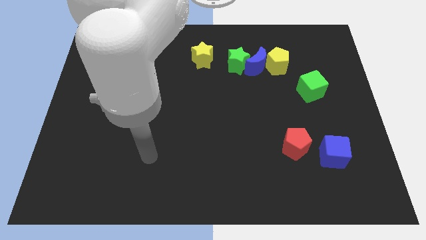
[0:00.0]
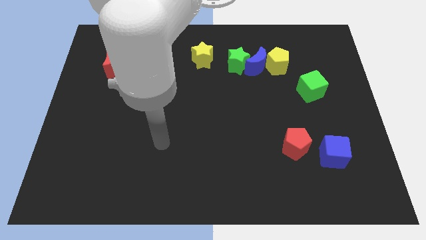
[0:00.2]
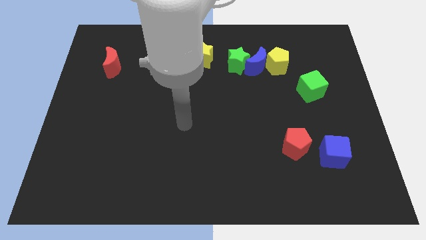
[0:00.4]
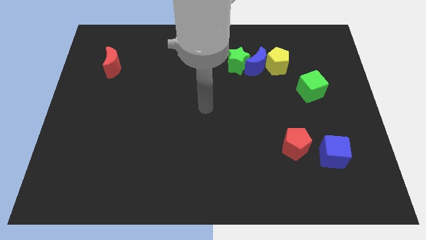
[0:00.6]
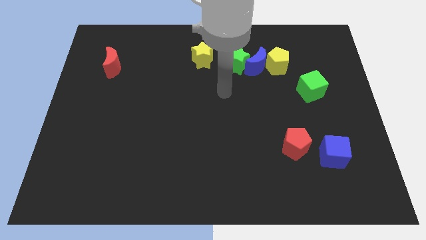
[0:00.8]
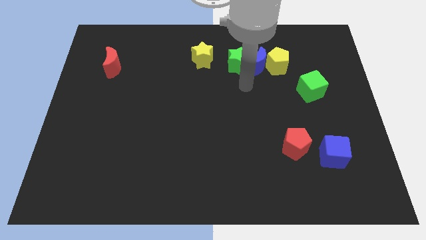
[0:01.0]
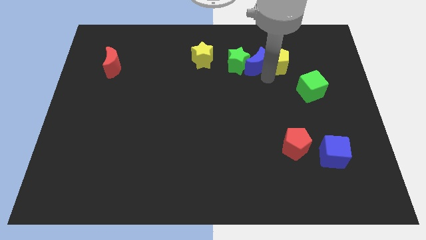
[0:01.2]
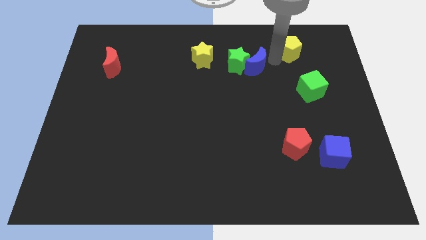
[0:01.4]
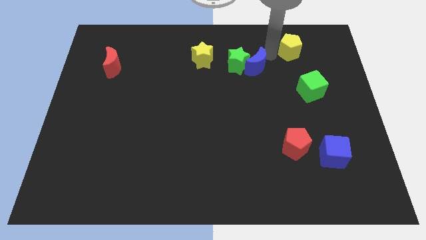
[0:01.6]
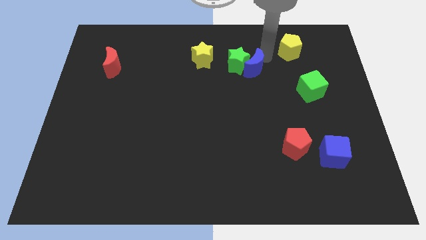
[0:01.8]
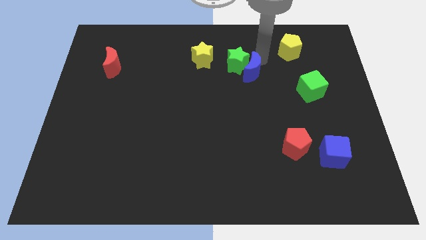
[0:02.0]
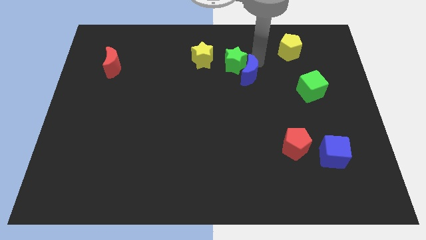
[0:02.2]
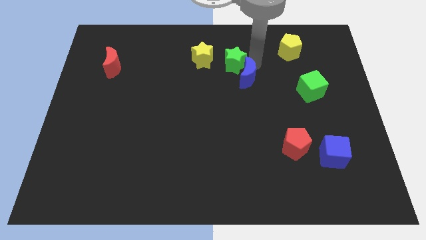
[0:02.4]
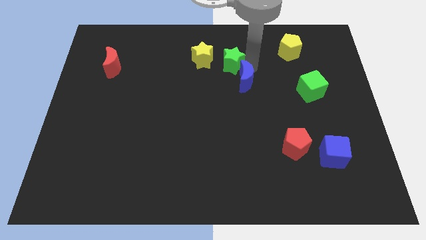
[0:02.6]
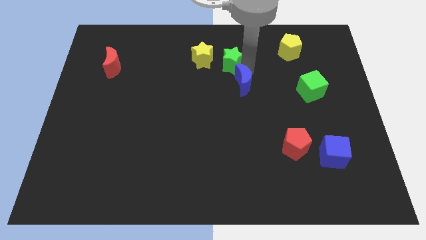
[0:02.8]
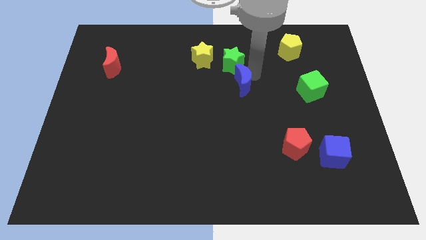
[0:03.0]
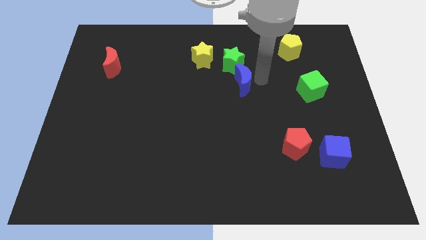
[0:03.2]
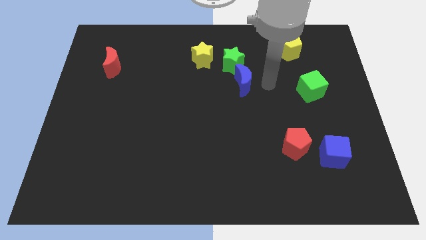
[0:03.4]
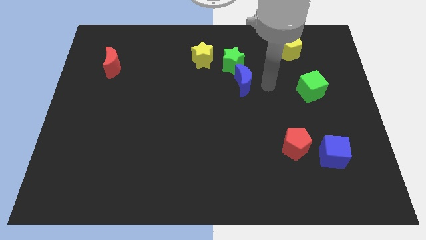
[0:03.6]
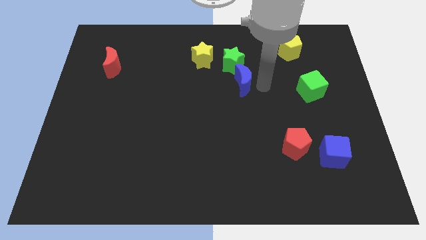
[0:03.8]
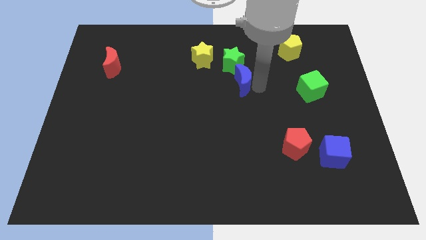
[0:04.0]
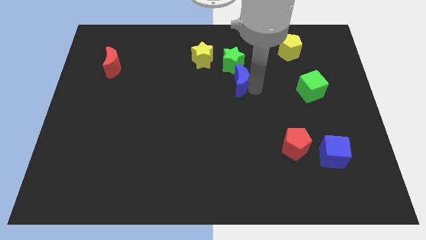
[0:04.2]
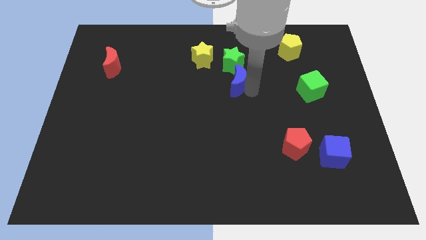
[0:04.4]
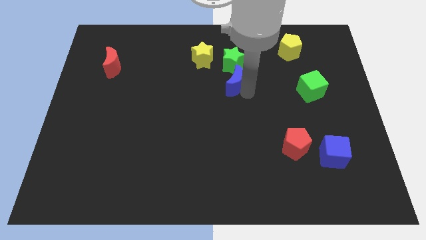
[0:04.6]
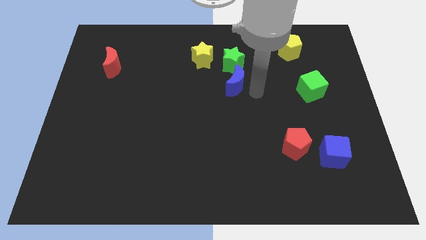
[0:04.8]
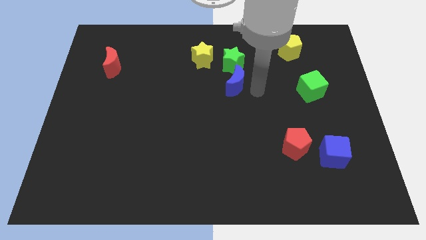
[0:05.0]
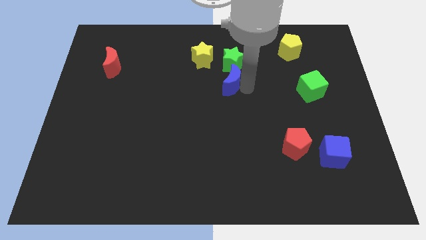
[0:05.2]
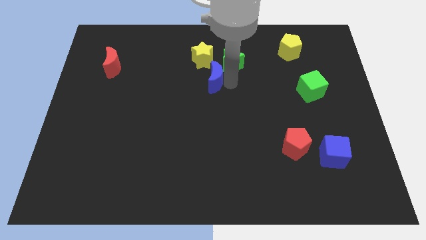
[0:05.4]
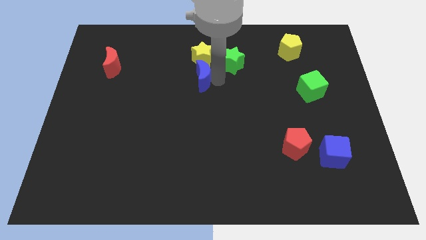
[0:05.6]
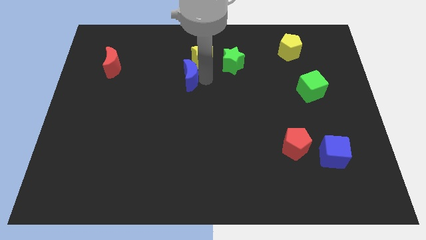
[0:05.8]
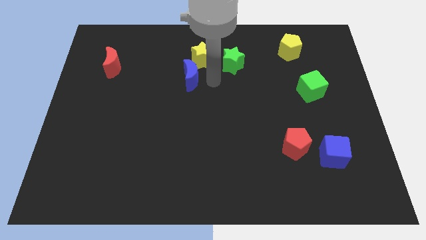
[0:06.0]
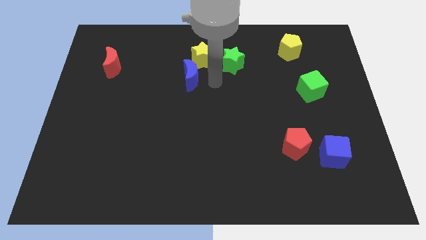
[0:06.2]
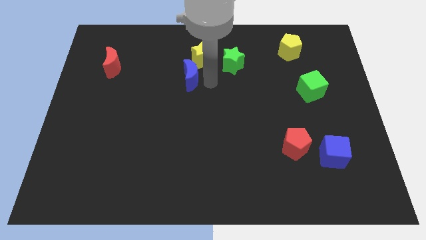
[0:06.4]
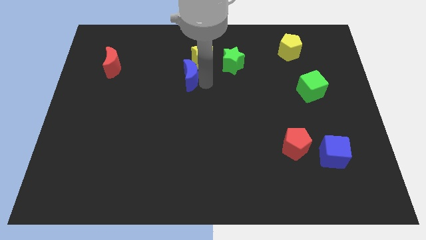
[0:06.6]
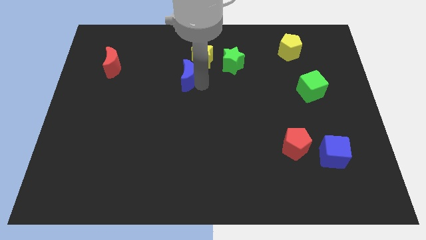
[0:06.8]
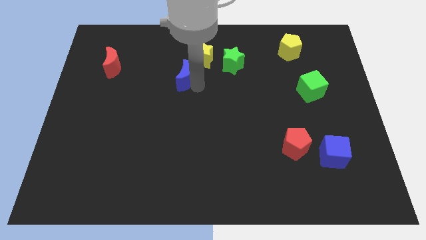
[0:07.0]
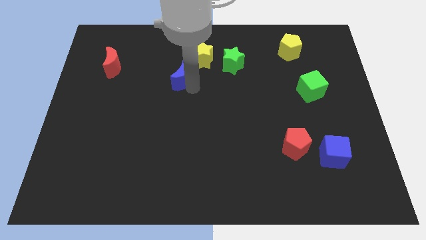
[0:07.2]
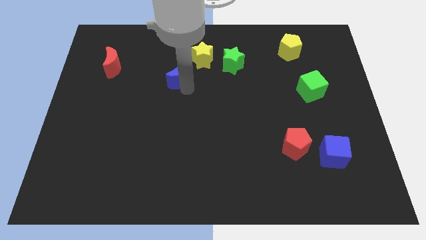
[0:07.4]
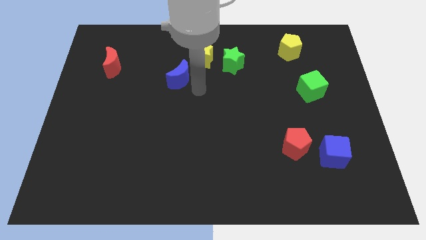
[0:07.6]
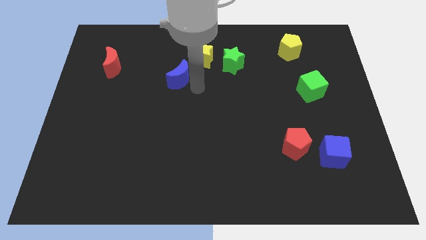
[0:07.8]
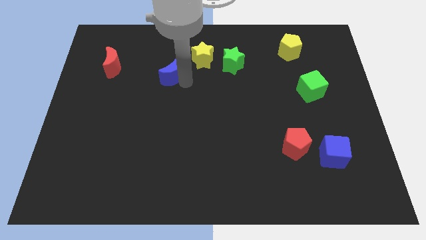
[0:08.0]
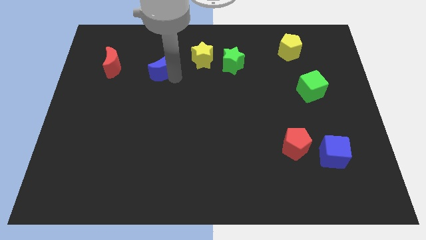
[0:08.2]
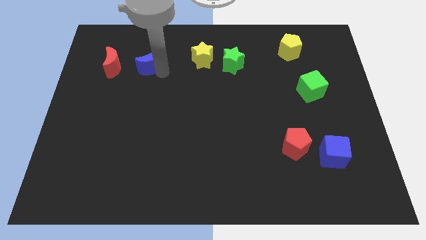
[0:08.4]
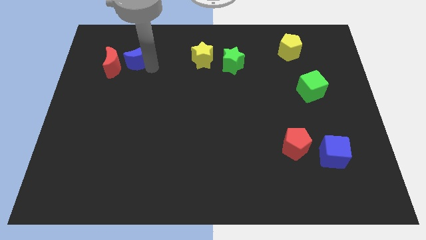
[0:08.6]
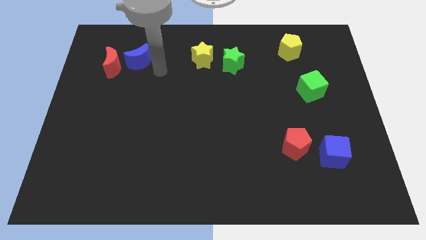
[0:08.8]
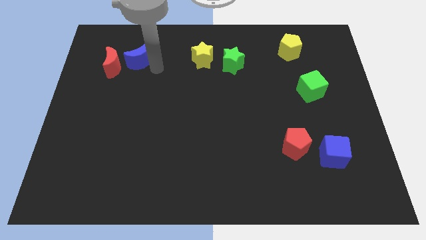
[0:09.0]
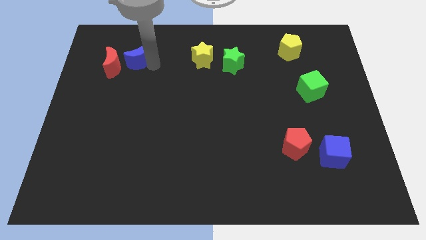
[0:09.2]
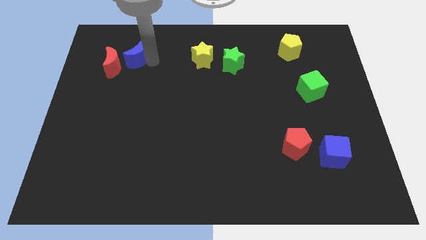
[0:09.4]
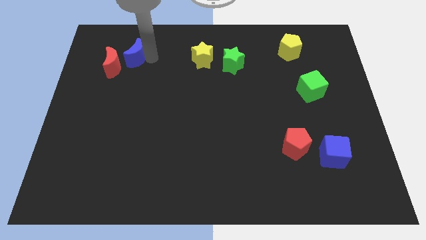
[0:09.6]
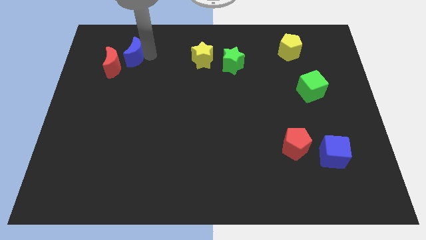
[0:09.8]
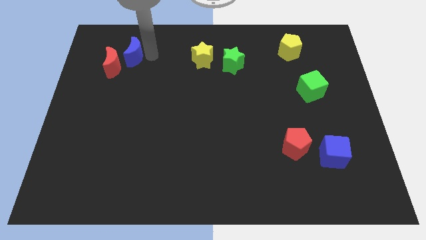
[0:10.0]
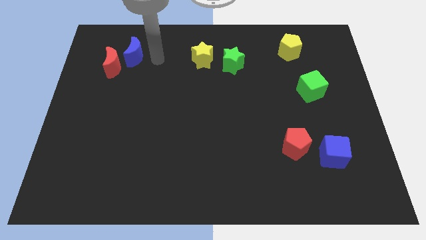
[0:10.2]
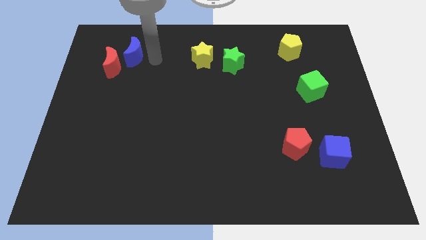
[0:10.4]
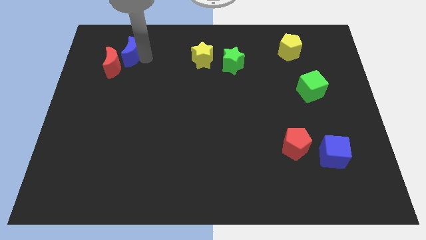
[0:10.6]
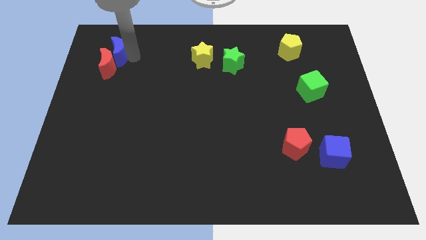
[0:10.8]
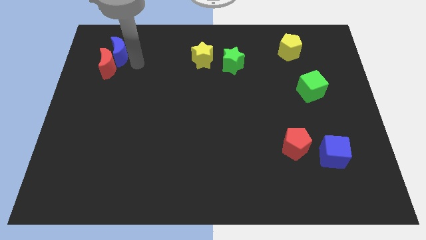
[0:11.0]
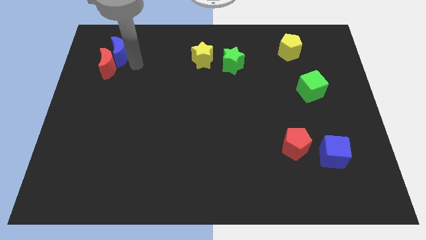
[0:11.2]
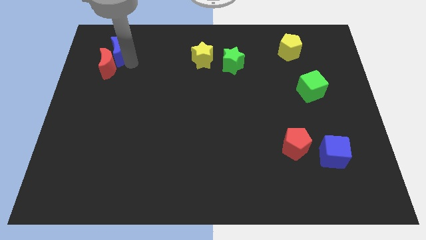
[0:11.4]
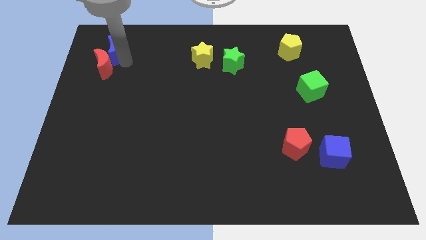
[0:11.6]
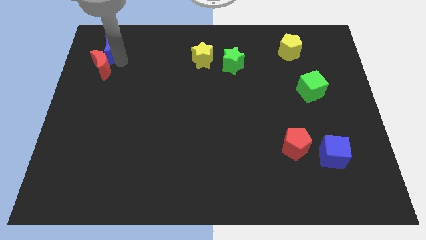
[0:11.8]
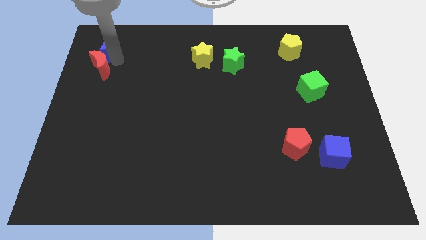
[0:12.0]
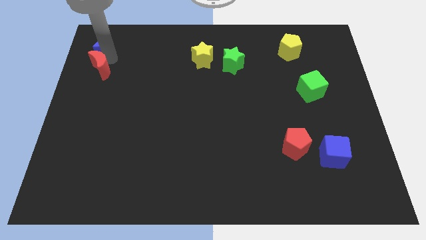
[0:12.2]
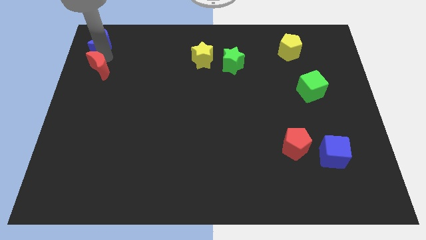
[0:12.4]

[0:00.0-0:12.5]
move the blue moon to the top left corner
